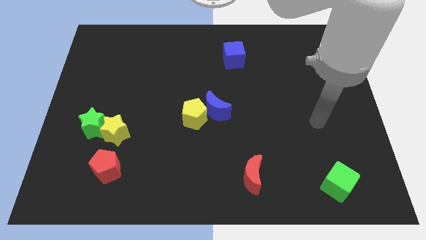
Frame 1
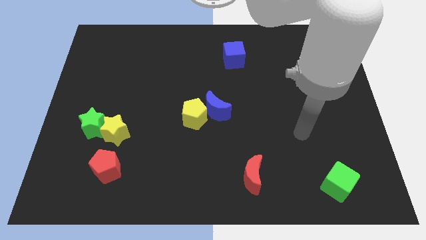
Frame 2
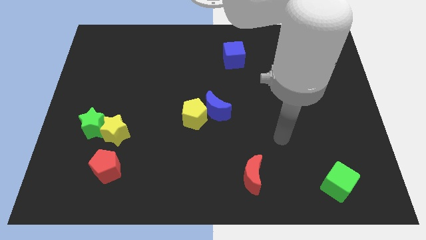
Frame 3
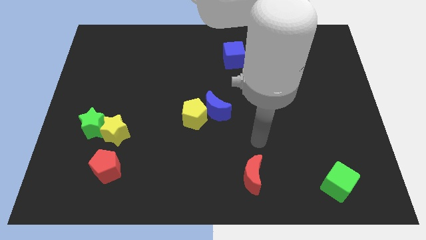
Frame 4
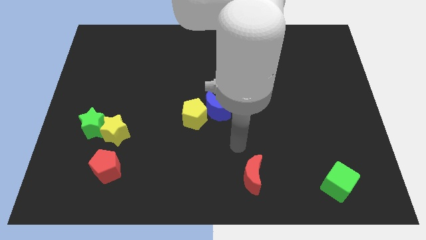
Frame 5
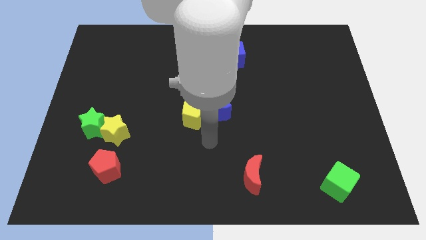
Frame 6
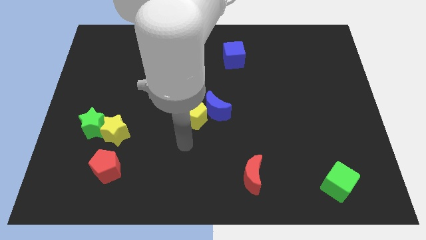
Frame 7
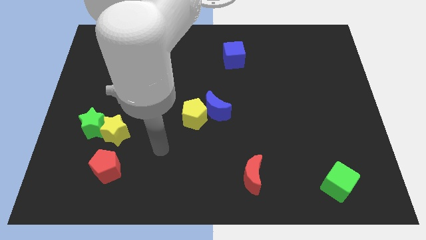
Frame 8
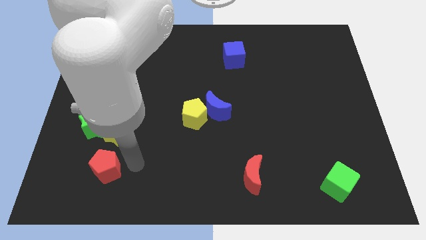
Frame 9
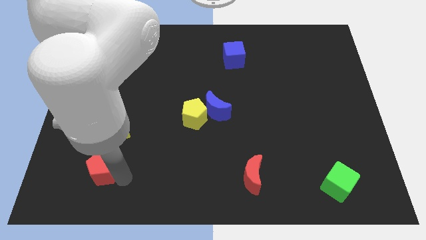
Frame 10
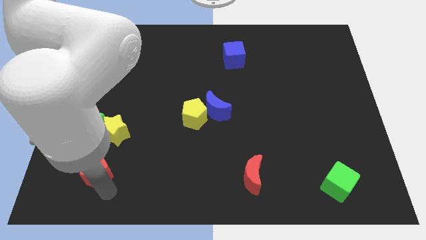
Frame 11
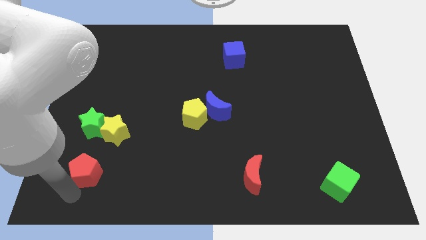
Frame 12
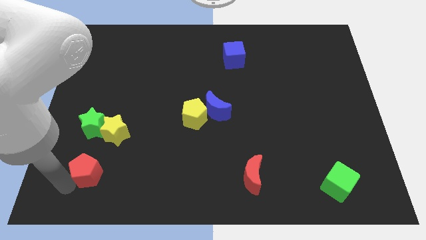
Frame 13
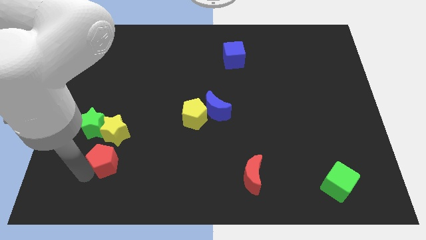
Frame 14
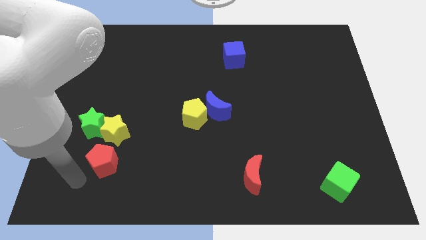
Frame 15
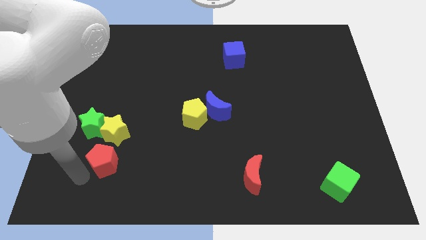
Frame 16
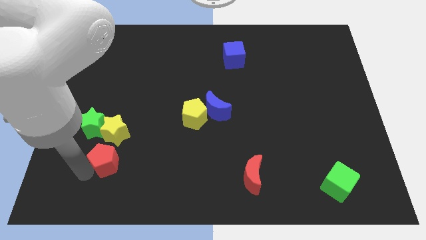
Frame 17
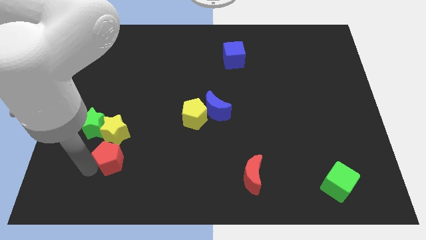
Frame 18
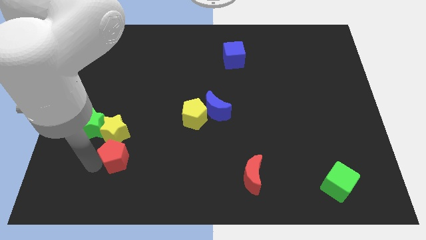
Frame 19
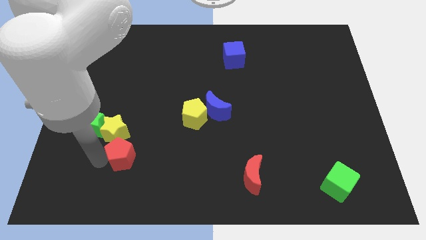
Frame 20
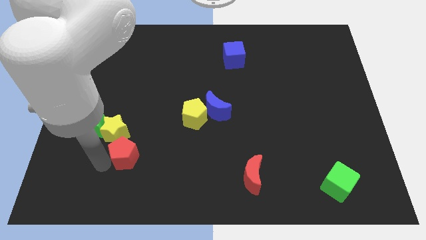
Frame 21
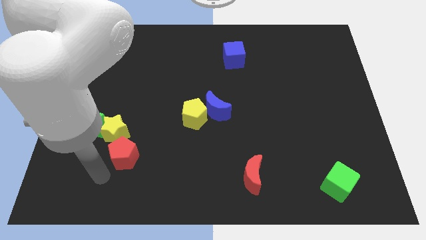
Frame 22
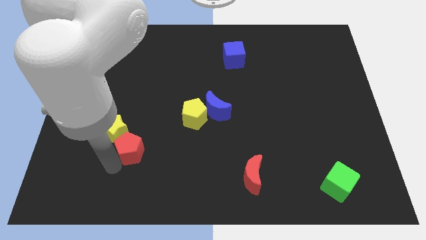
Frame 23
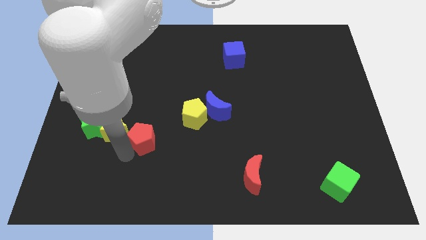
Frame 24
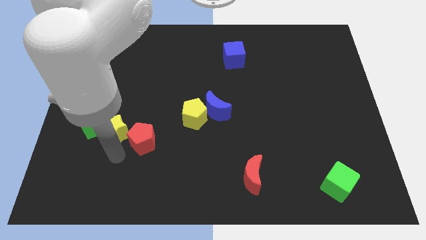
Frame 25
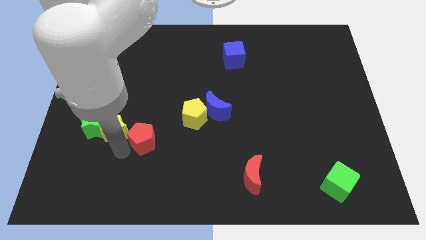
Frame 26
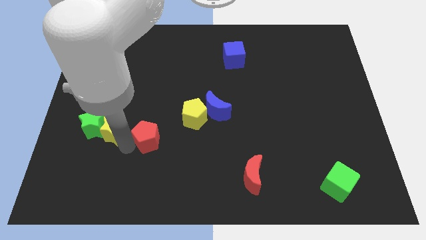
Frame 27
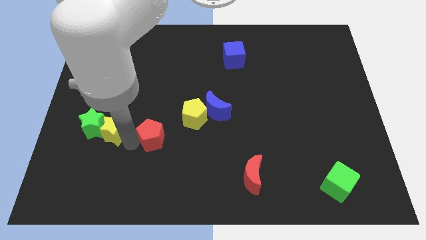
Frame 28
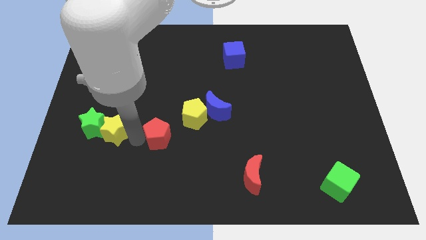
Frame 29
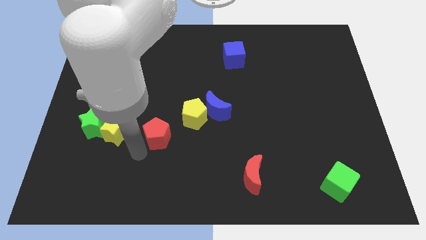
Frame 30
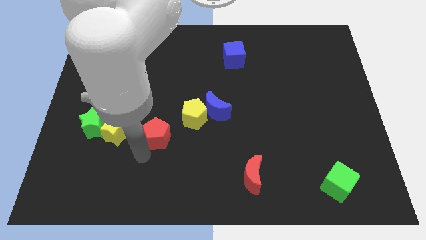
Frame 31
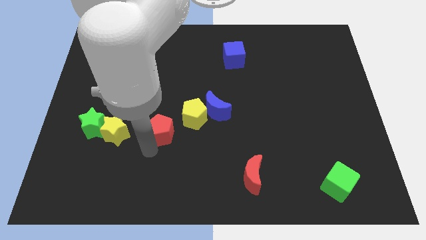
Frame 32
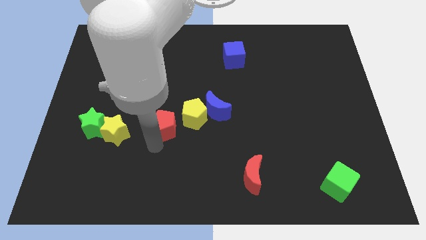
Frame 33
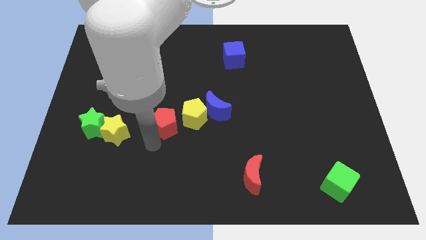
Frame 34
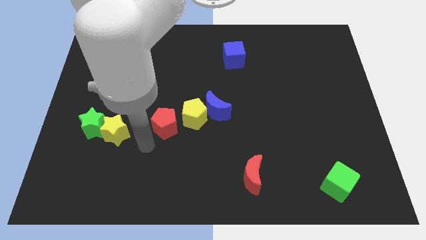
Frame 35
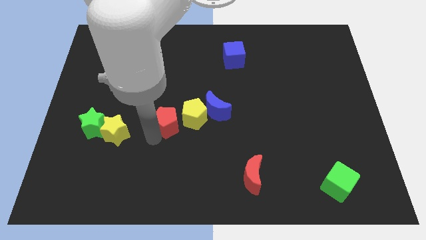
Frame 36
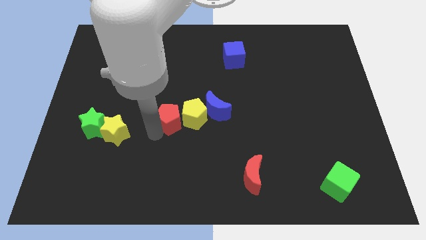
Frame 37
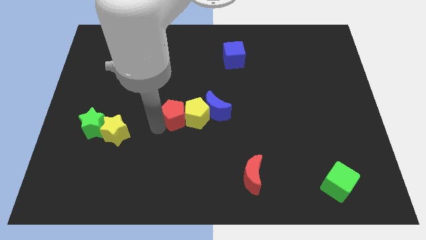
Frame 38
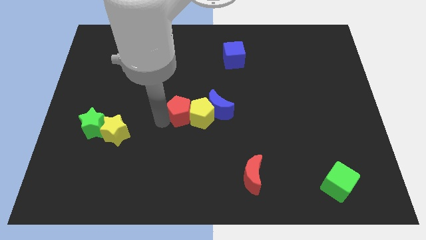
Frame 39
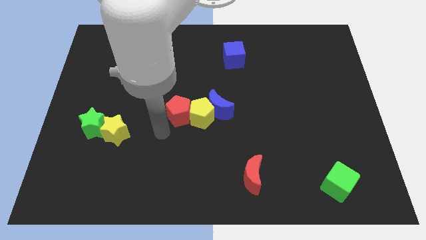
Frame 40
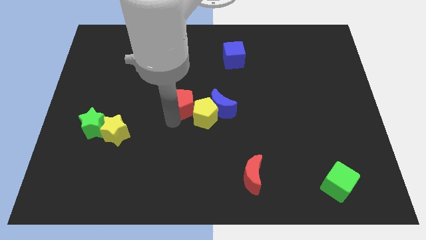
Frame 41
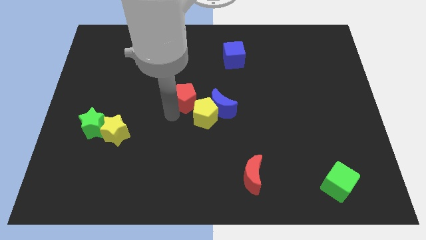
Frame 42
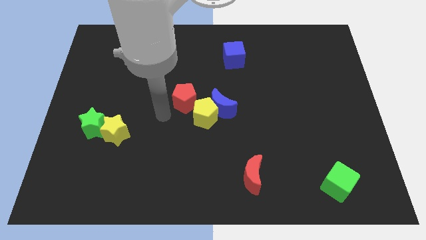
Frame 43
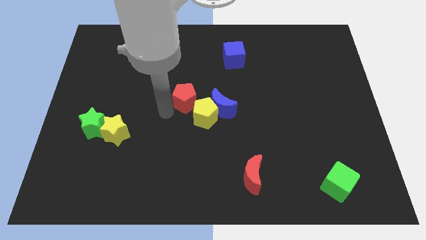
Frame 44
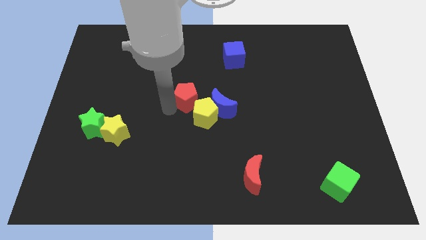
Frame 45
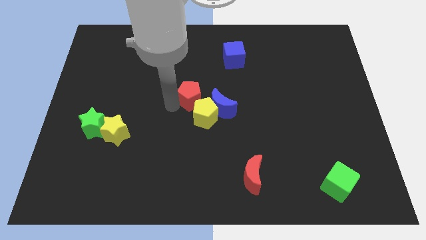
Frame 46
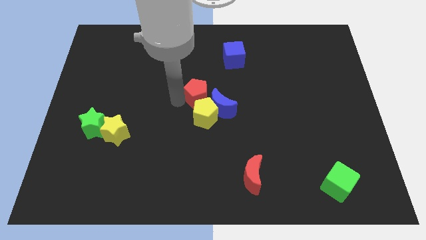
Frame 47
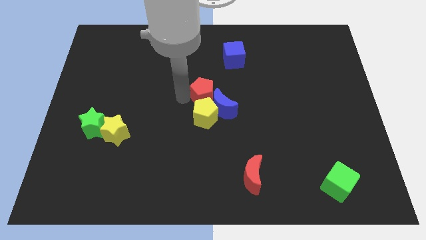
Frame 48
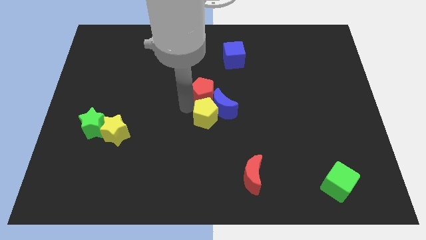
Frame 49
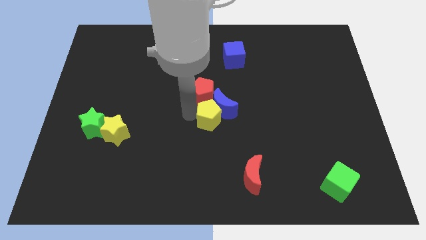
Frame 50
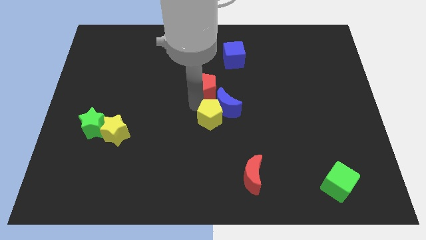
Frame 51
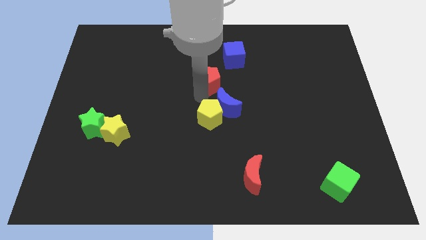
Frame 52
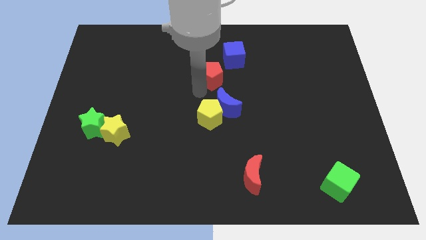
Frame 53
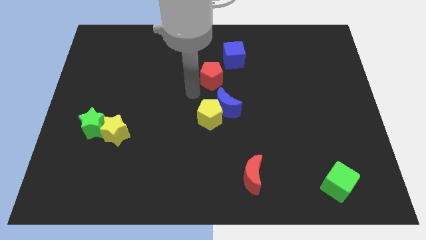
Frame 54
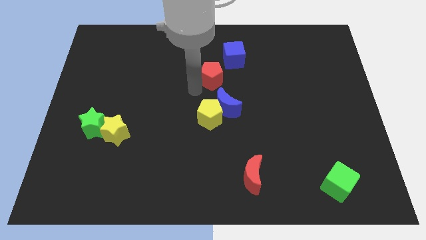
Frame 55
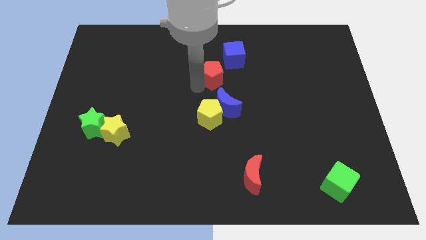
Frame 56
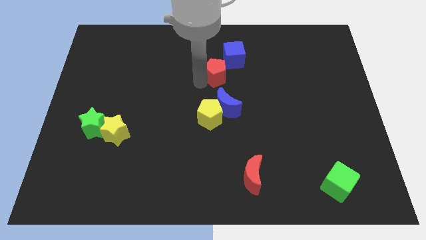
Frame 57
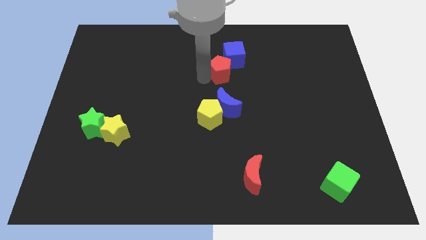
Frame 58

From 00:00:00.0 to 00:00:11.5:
move the red pentagon towards the blue cube

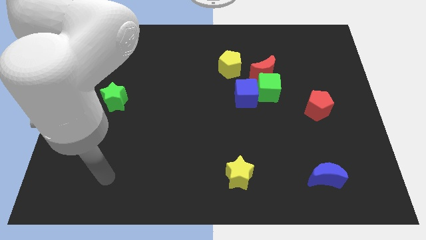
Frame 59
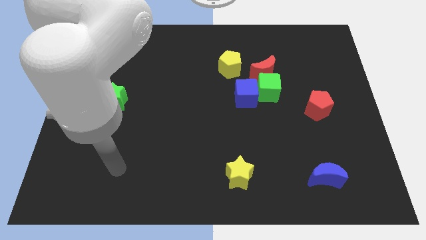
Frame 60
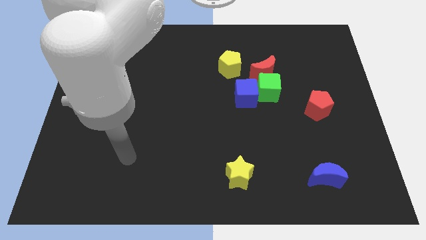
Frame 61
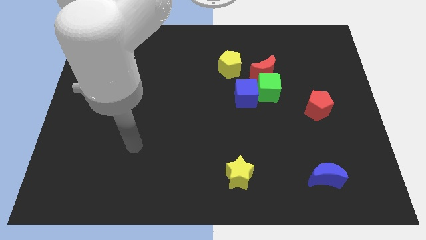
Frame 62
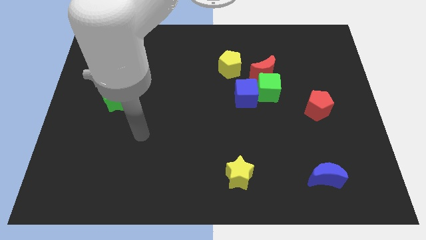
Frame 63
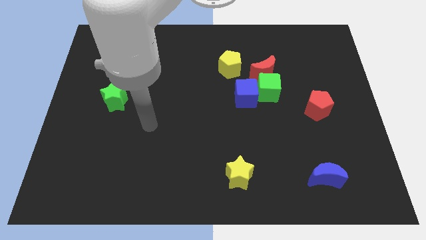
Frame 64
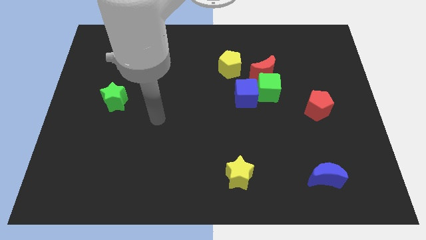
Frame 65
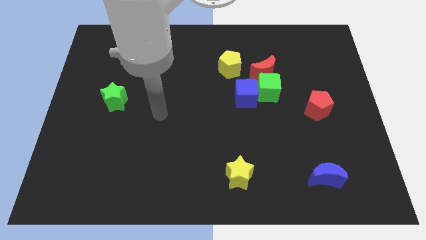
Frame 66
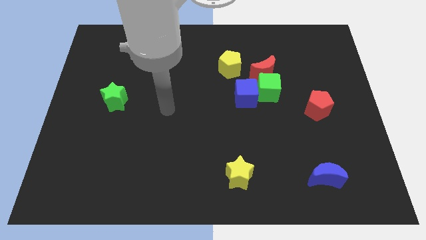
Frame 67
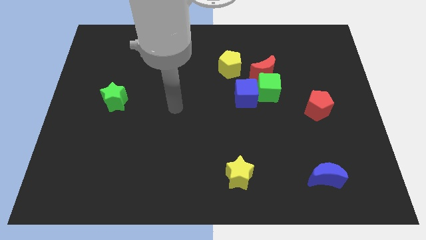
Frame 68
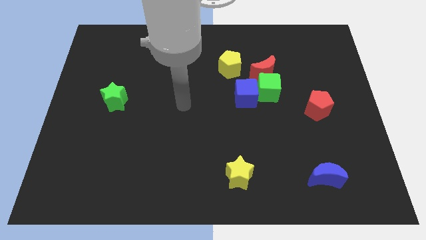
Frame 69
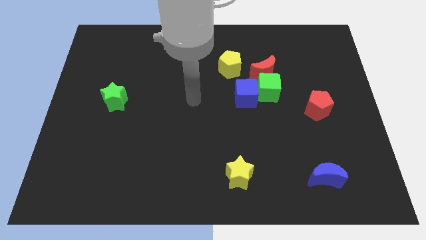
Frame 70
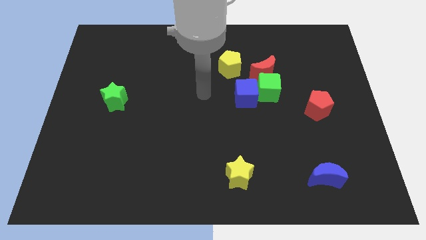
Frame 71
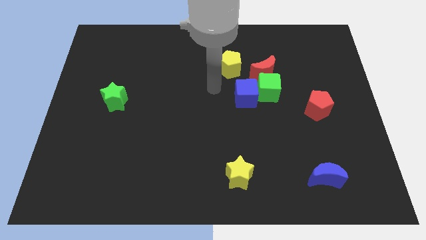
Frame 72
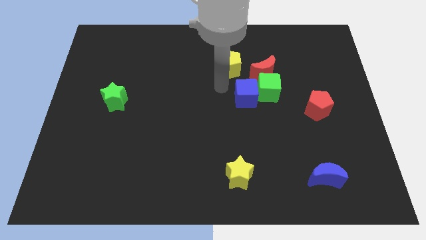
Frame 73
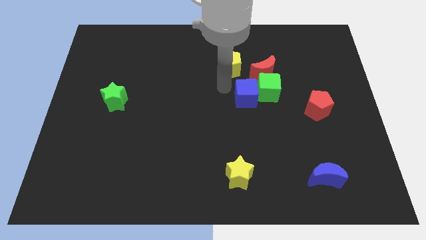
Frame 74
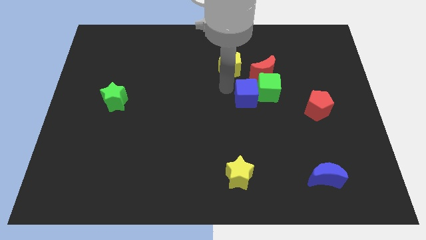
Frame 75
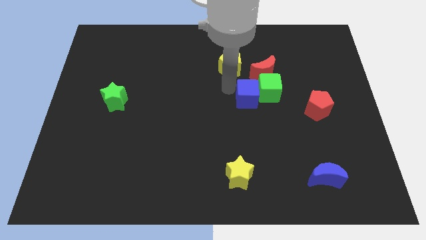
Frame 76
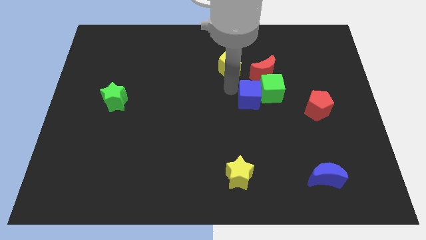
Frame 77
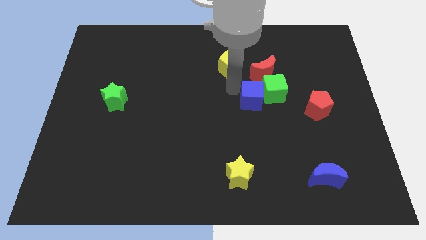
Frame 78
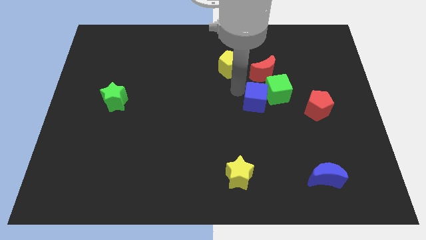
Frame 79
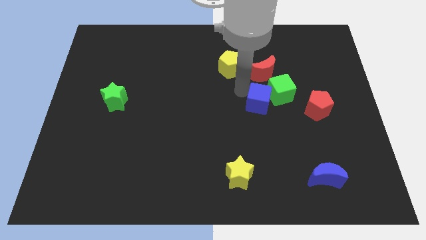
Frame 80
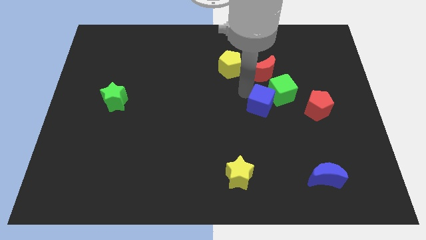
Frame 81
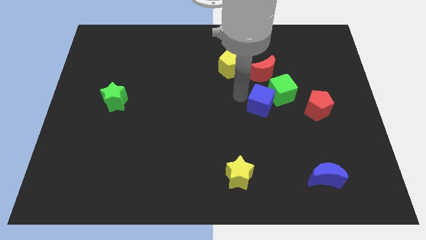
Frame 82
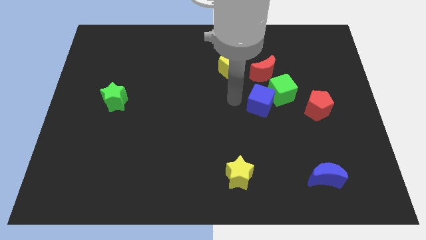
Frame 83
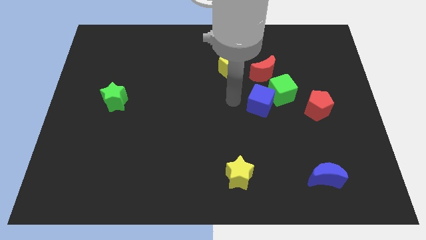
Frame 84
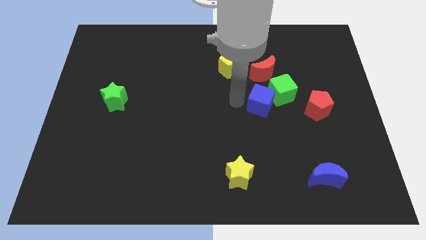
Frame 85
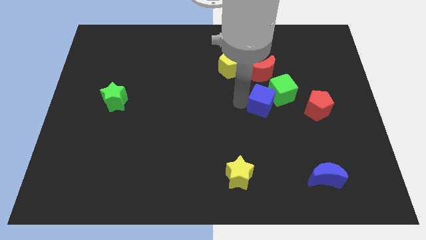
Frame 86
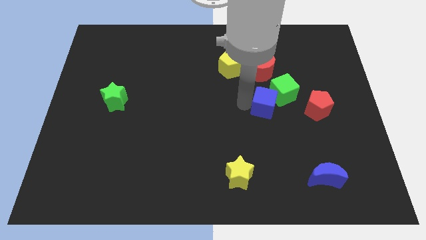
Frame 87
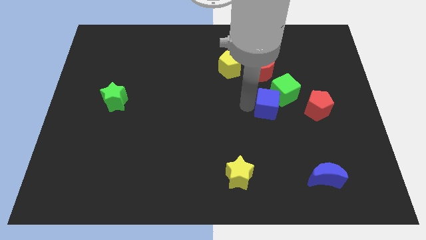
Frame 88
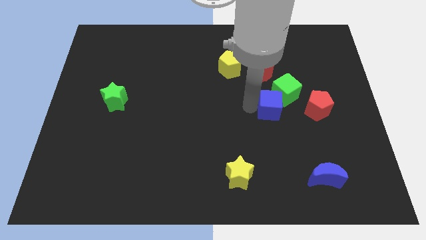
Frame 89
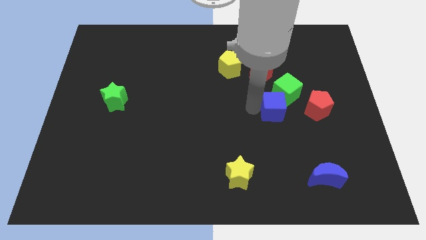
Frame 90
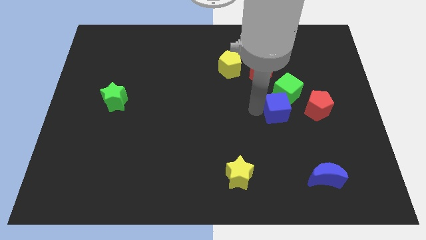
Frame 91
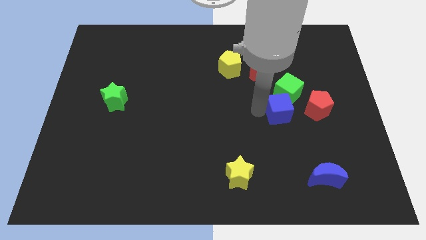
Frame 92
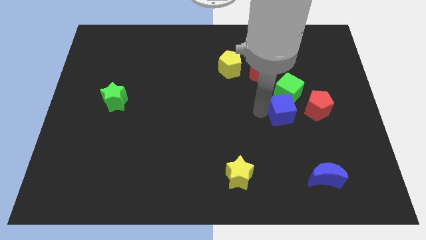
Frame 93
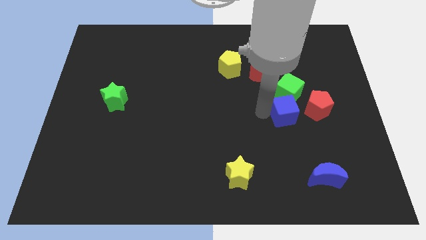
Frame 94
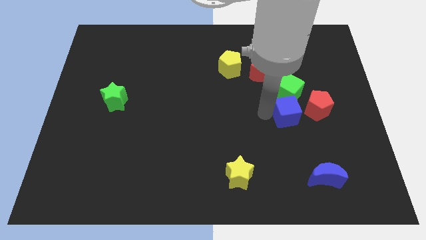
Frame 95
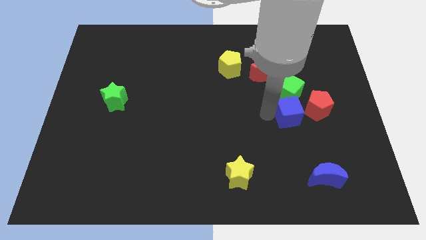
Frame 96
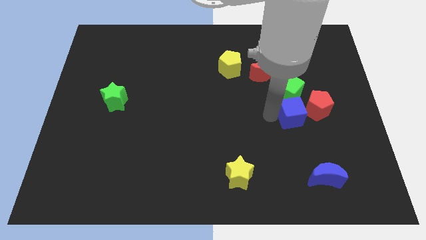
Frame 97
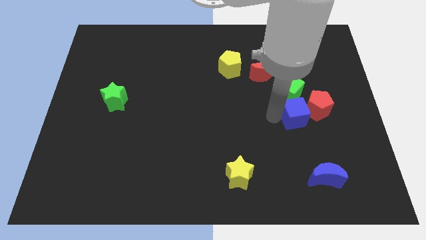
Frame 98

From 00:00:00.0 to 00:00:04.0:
move the blue cube next to the red pentagon
